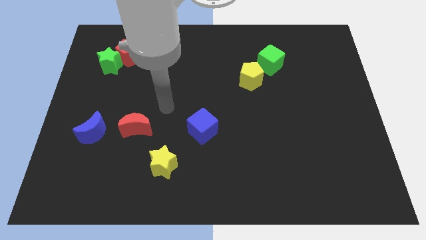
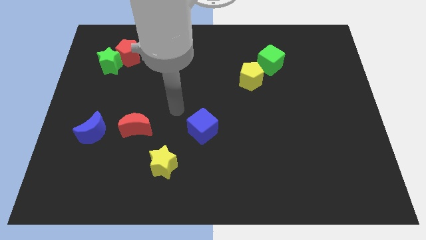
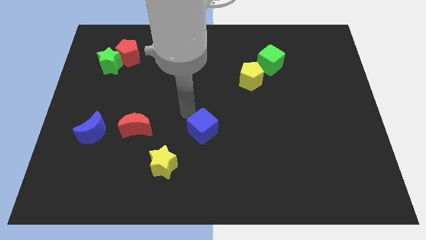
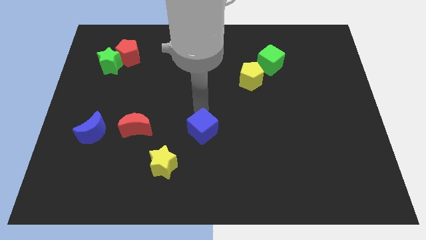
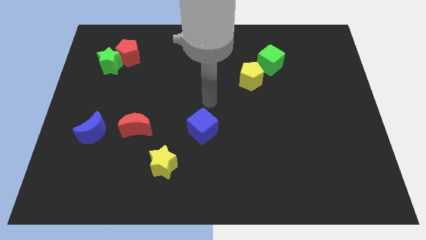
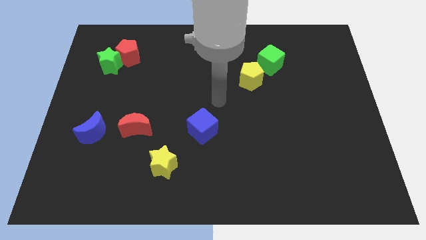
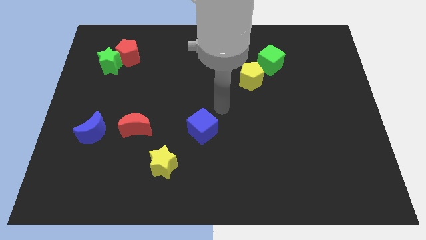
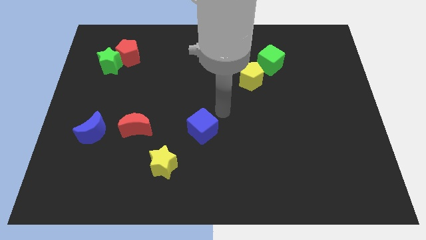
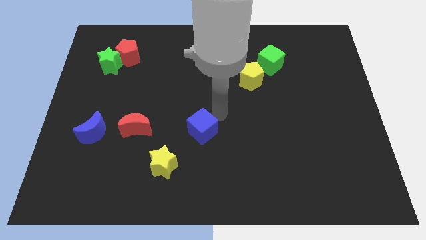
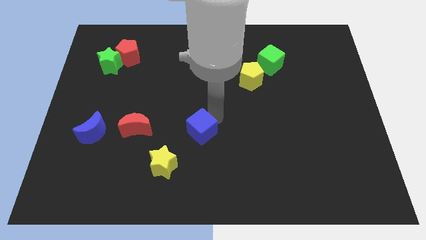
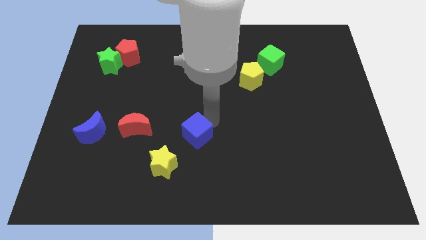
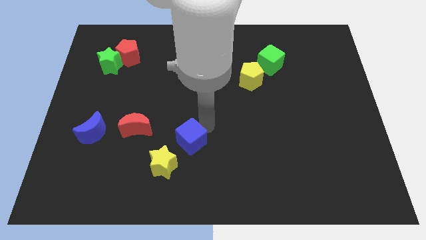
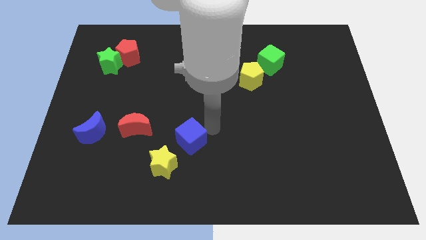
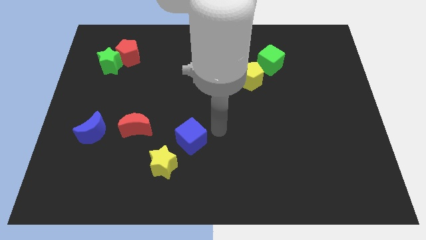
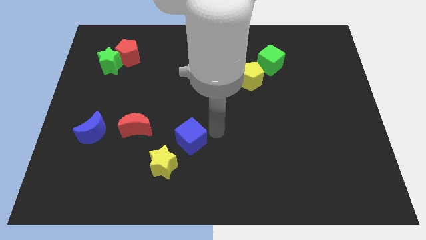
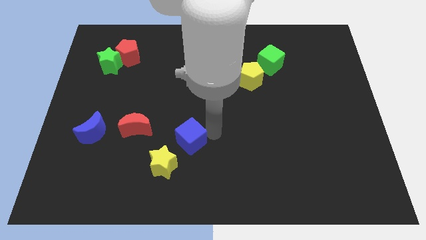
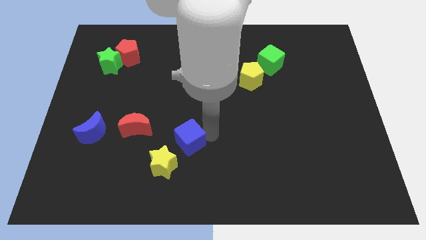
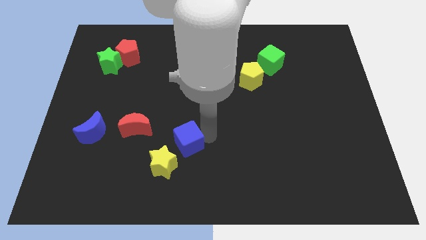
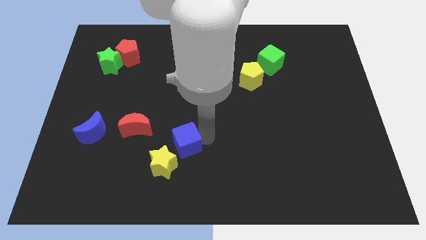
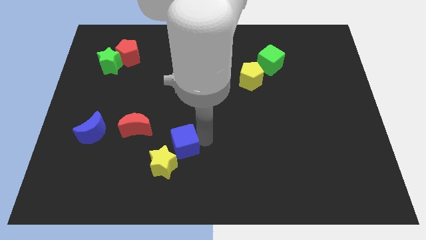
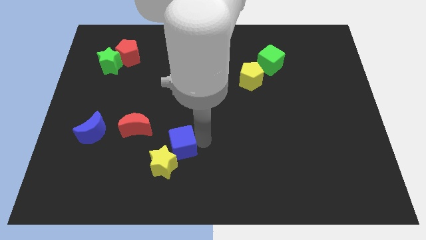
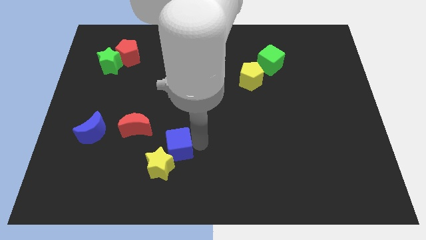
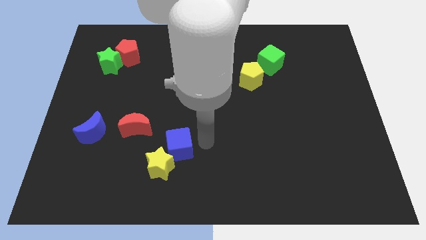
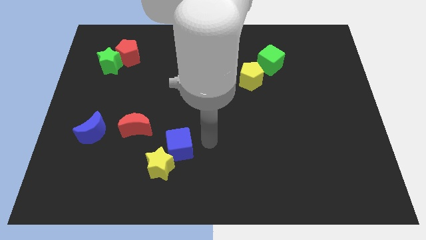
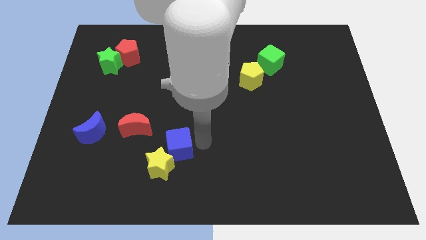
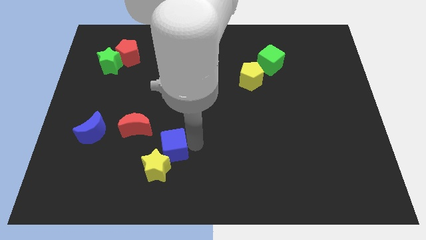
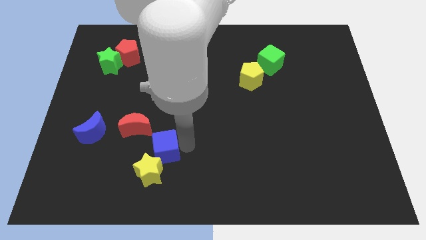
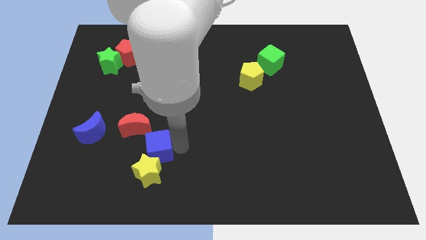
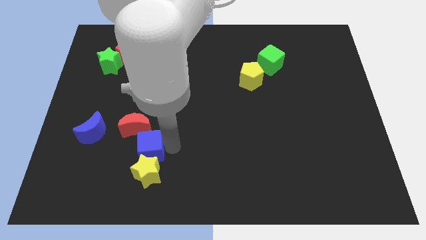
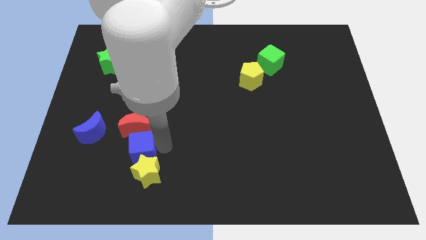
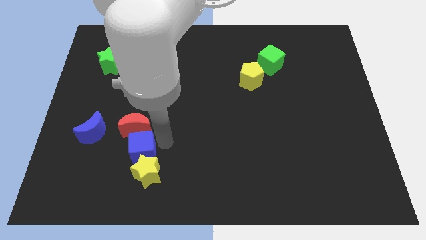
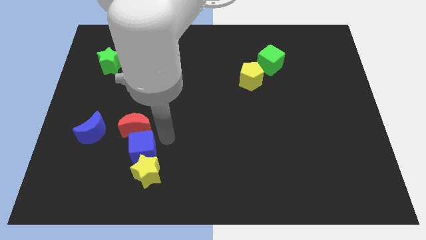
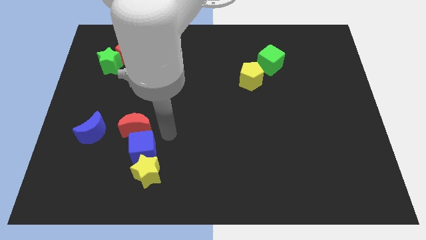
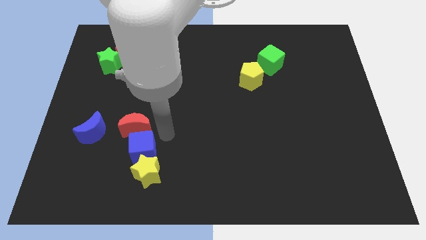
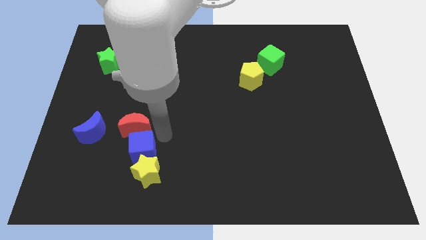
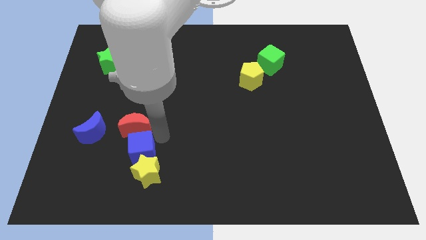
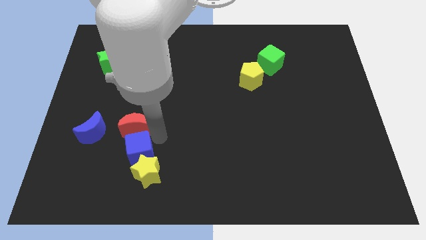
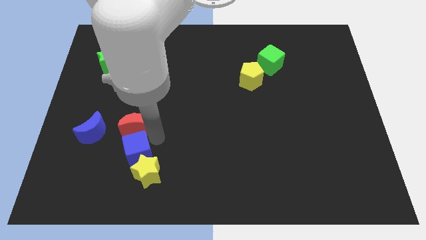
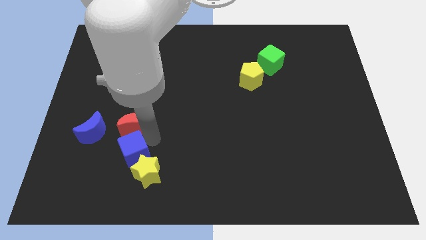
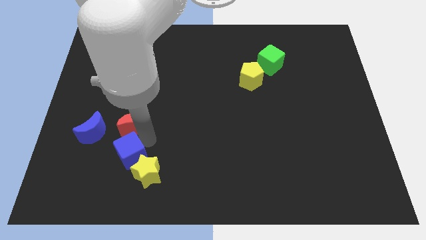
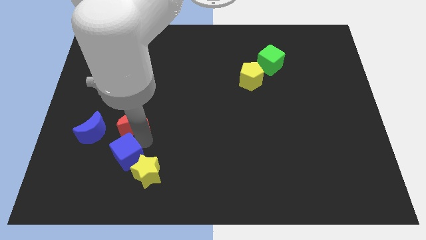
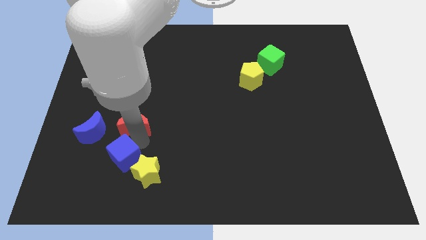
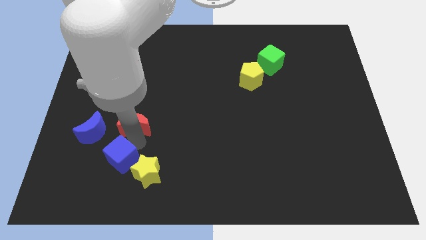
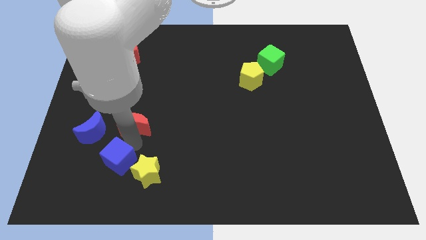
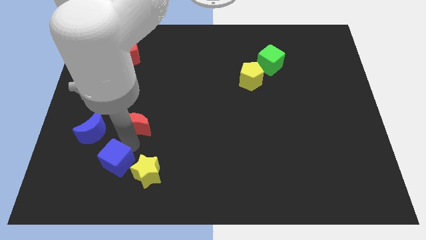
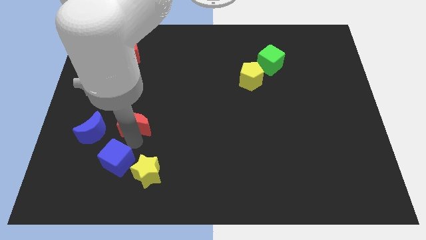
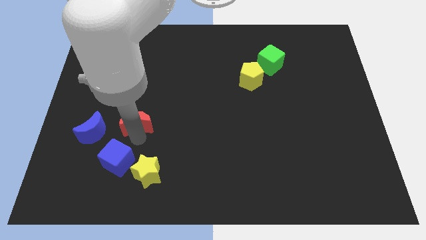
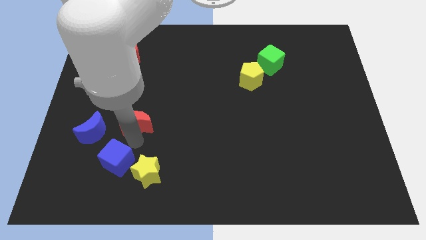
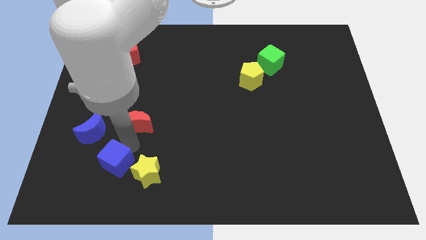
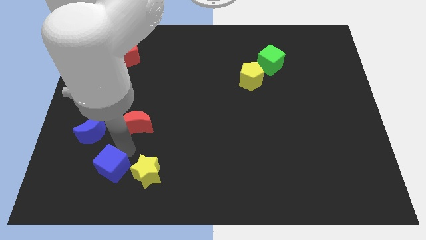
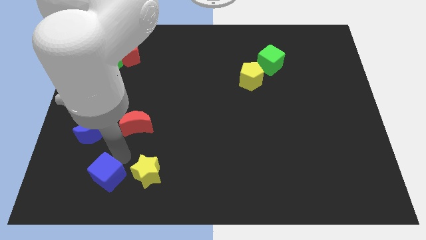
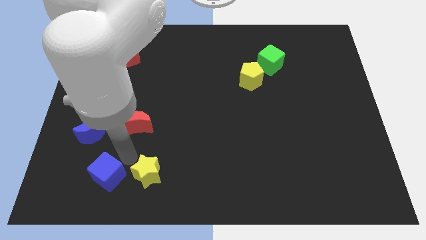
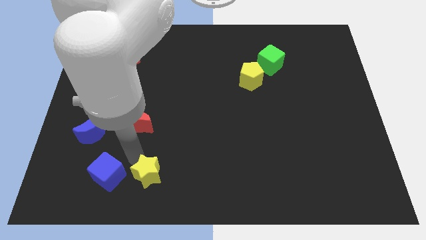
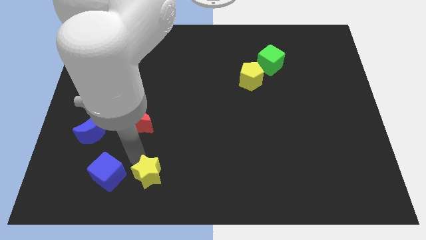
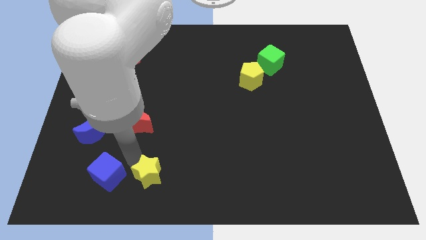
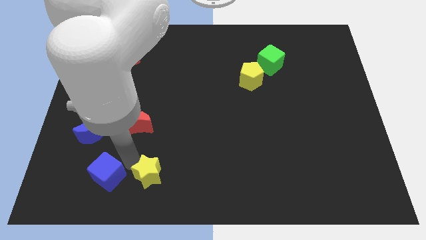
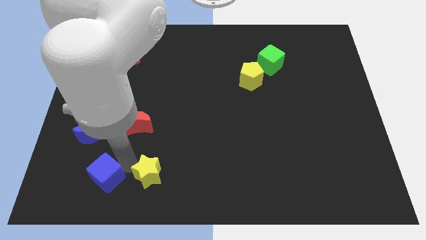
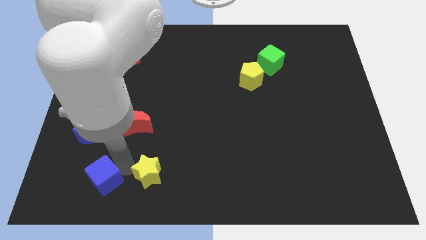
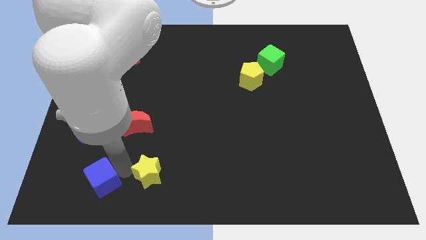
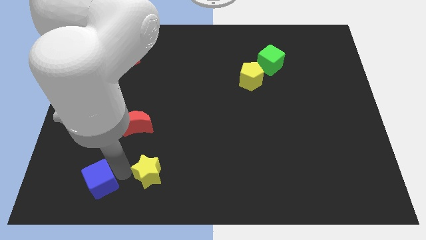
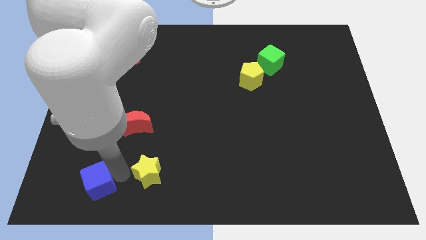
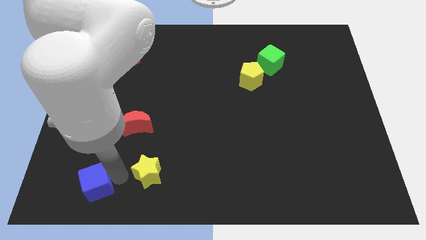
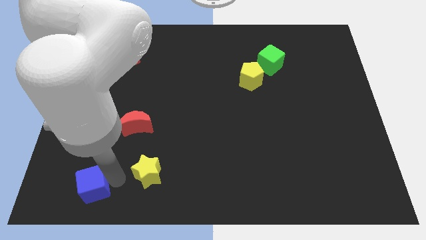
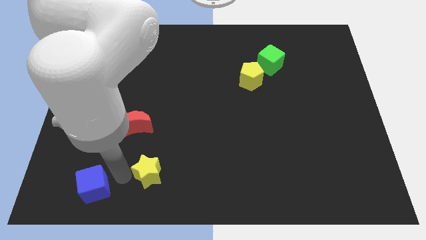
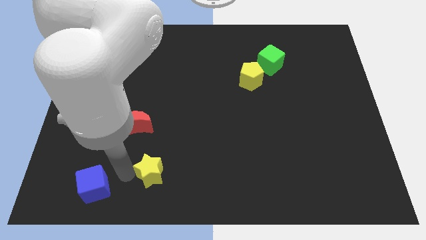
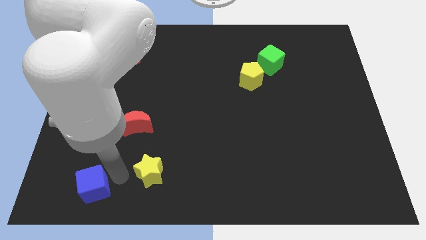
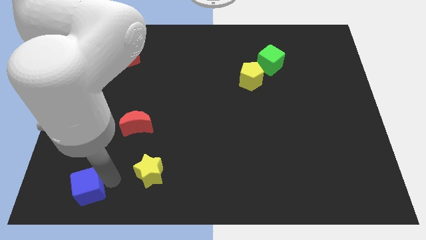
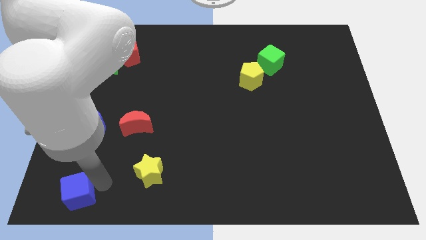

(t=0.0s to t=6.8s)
put the blue cube to the bottom left of the board
